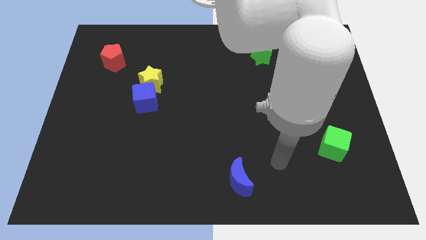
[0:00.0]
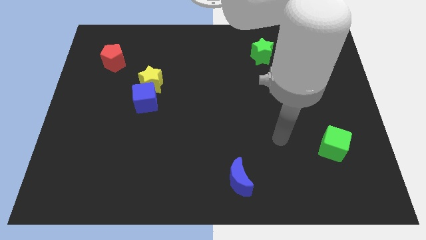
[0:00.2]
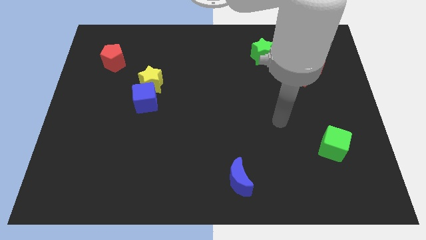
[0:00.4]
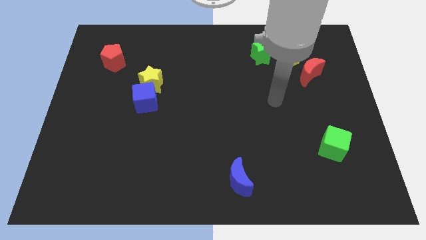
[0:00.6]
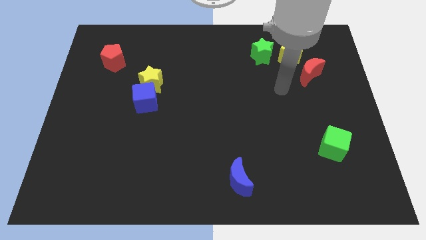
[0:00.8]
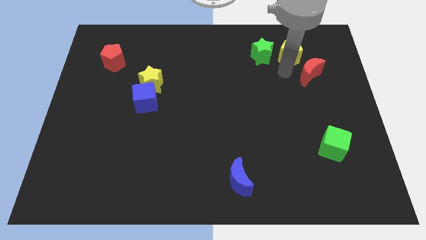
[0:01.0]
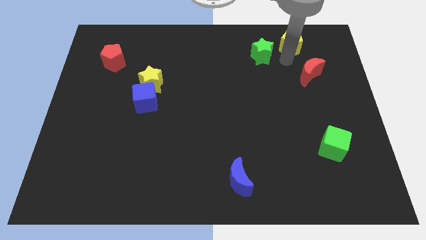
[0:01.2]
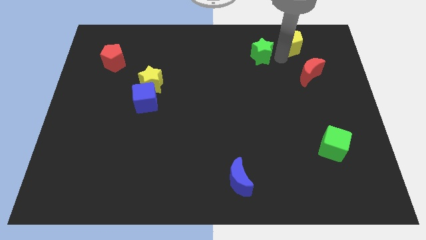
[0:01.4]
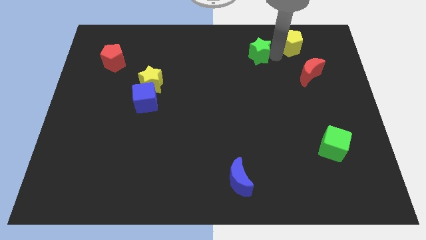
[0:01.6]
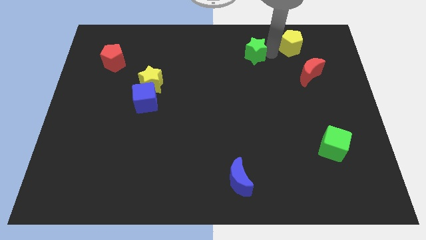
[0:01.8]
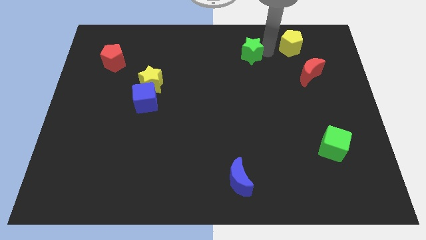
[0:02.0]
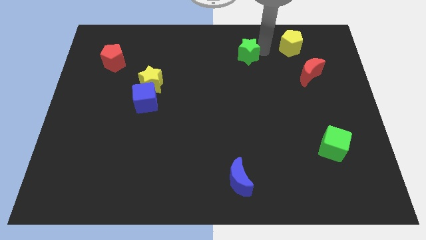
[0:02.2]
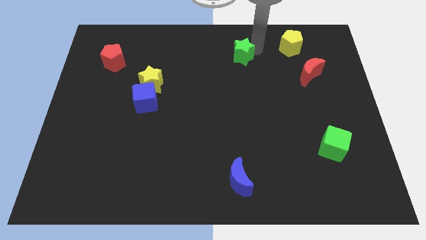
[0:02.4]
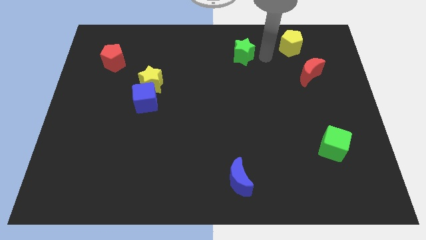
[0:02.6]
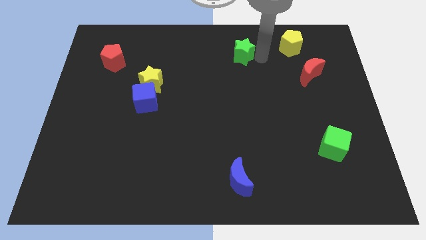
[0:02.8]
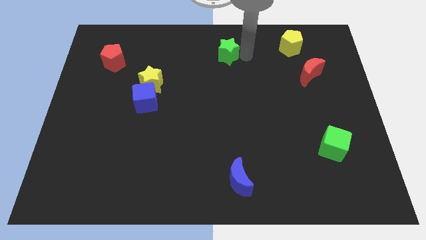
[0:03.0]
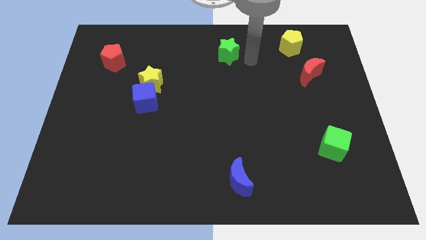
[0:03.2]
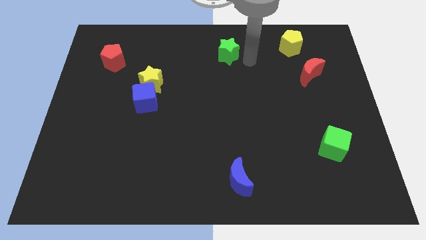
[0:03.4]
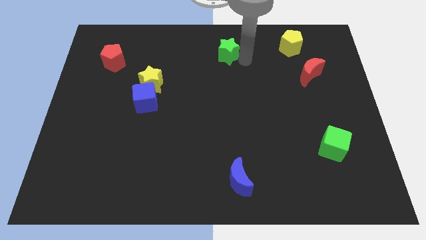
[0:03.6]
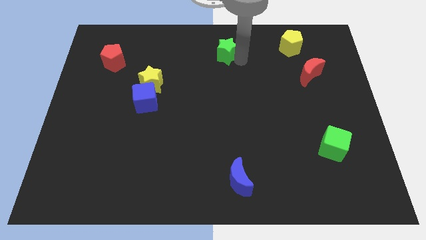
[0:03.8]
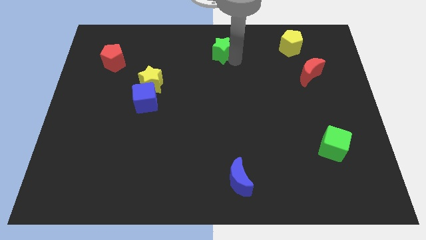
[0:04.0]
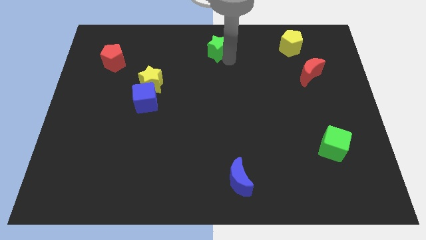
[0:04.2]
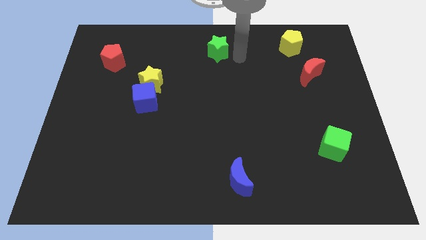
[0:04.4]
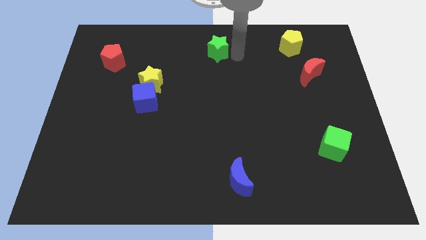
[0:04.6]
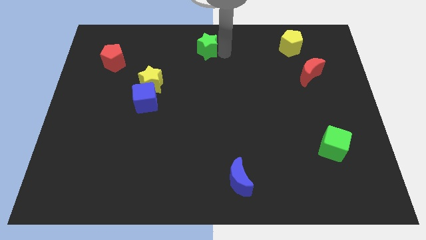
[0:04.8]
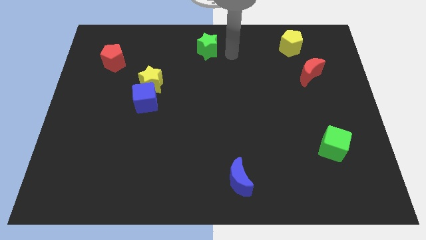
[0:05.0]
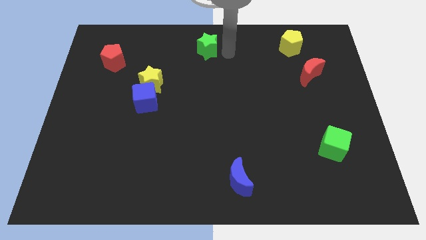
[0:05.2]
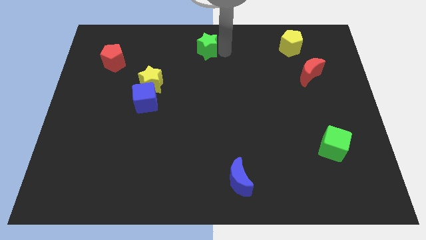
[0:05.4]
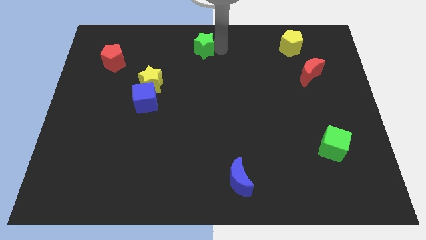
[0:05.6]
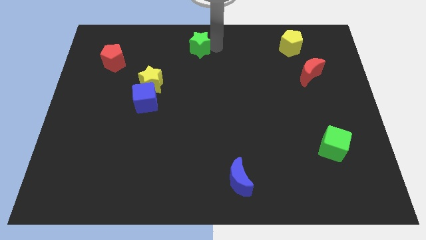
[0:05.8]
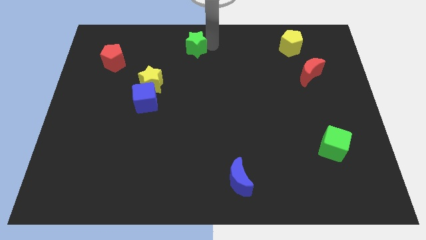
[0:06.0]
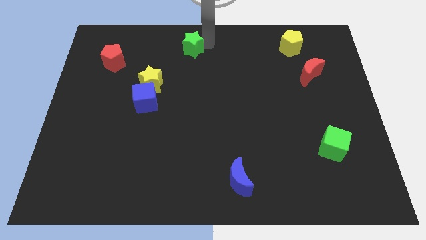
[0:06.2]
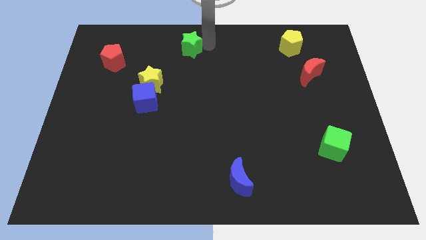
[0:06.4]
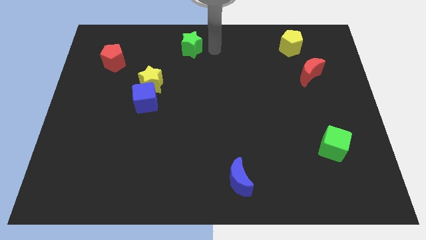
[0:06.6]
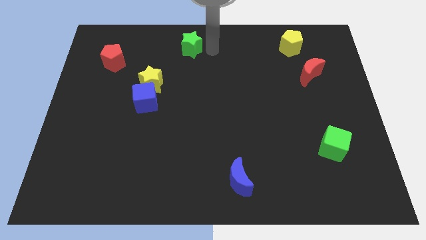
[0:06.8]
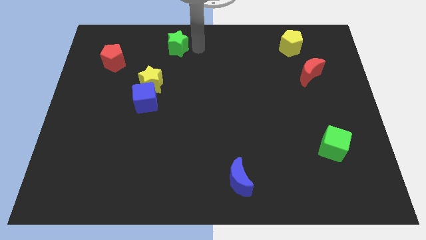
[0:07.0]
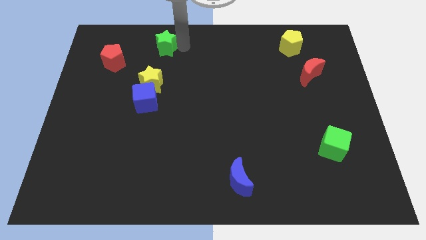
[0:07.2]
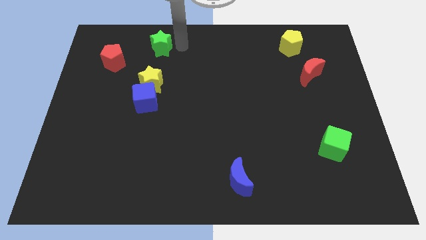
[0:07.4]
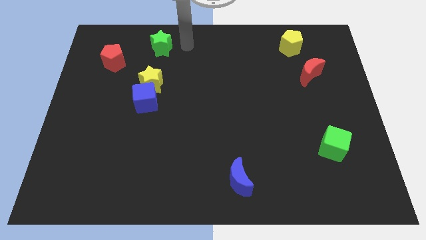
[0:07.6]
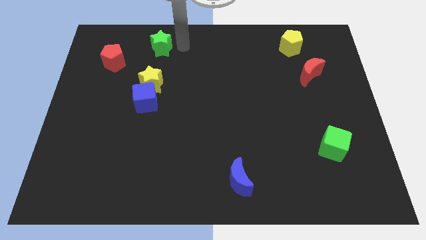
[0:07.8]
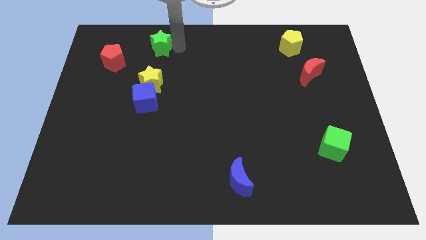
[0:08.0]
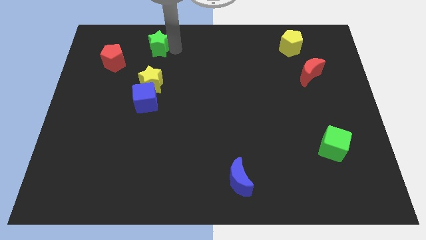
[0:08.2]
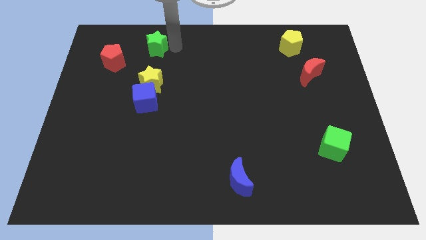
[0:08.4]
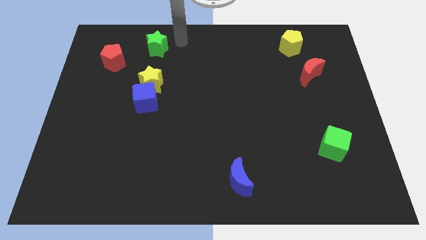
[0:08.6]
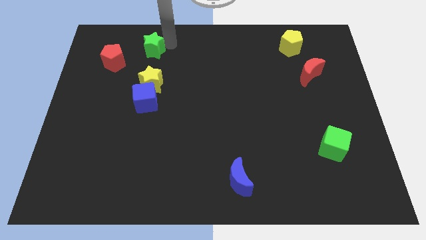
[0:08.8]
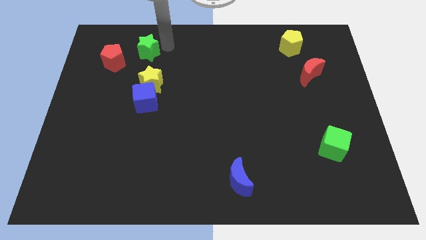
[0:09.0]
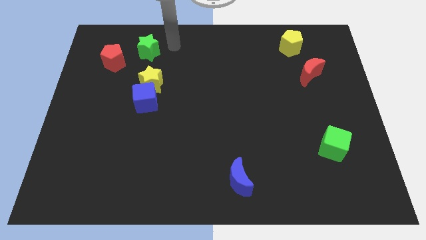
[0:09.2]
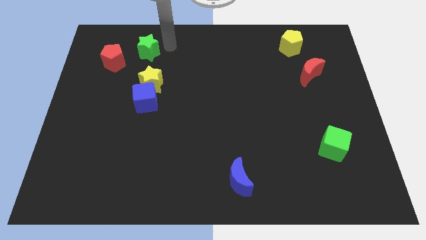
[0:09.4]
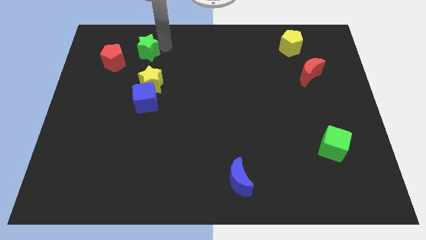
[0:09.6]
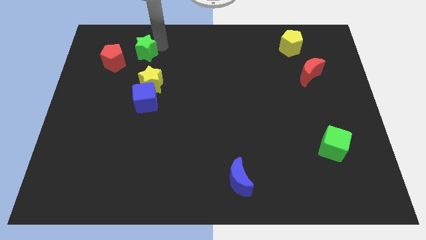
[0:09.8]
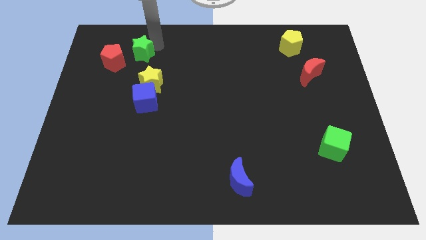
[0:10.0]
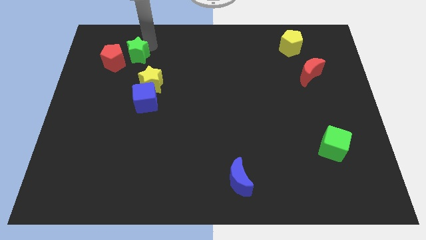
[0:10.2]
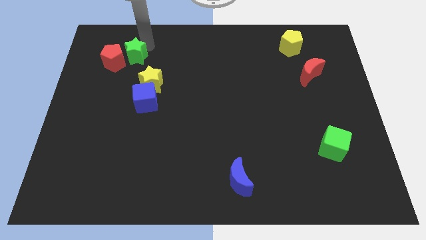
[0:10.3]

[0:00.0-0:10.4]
push the green star next to the red pentagon

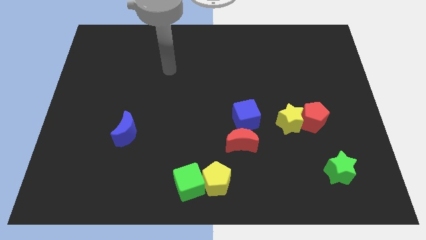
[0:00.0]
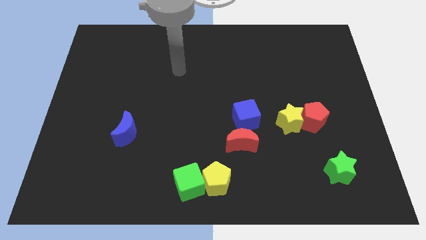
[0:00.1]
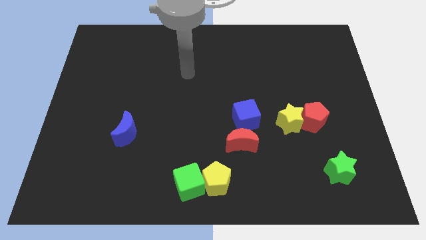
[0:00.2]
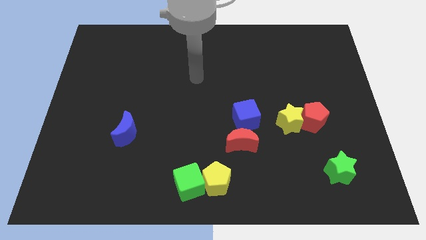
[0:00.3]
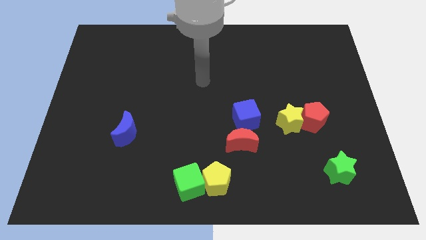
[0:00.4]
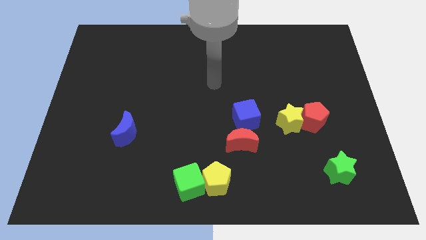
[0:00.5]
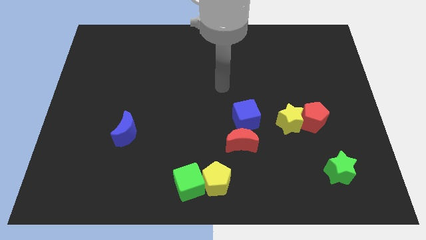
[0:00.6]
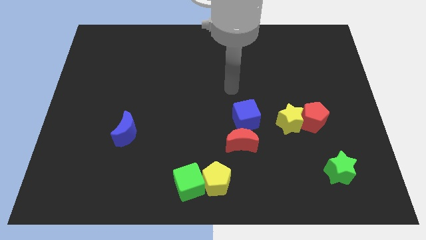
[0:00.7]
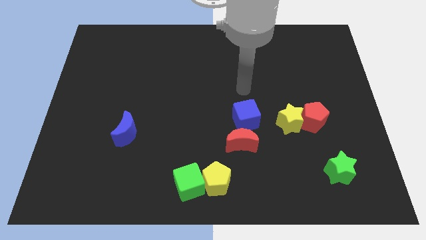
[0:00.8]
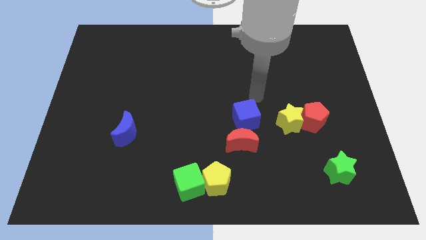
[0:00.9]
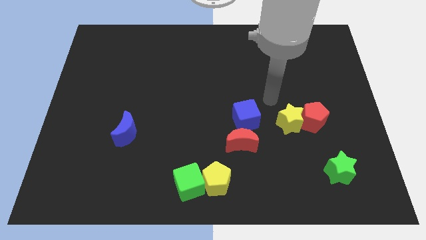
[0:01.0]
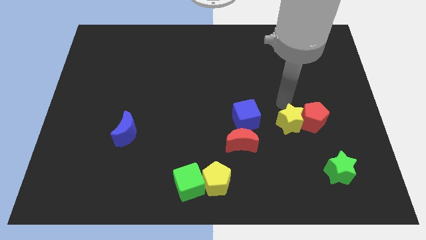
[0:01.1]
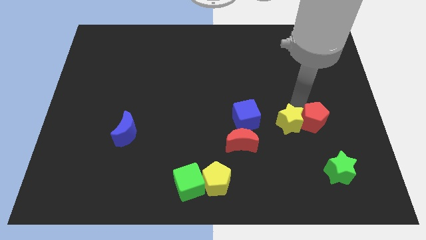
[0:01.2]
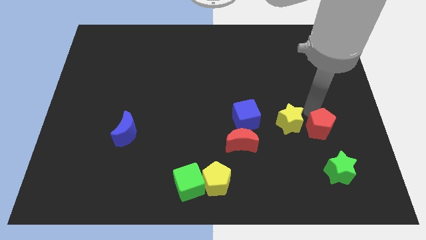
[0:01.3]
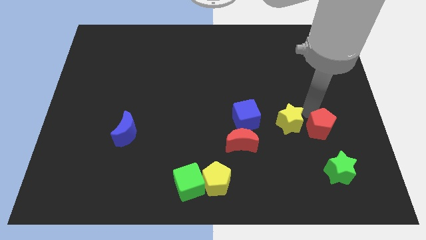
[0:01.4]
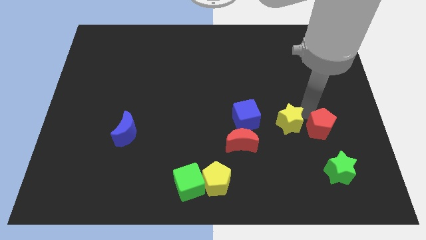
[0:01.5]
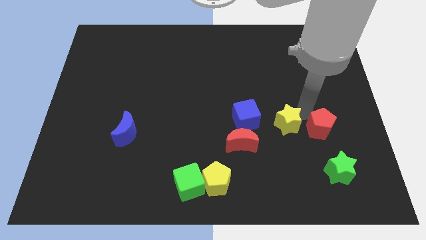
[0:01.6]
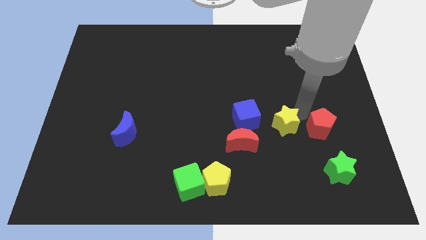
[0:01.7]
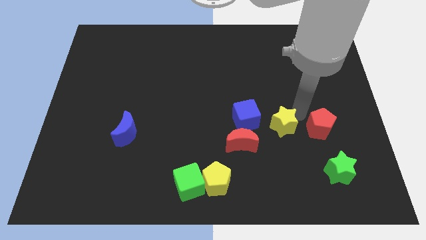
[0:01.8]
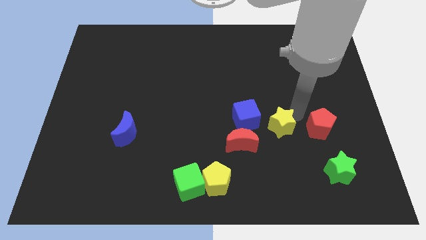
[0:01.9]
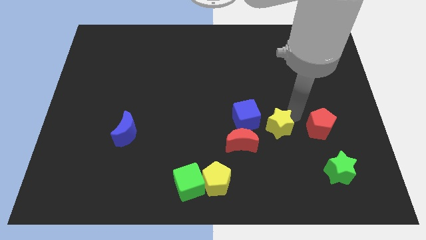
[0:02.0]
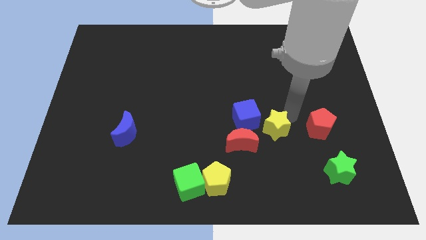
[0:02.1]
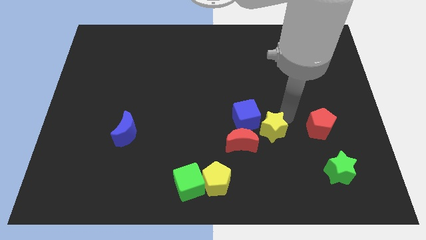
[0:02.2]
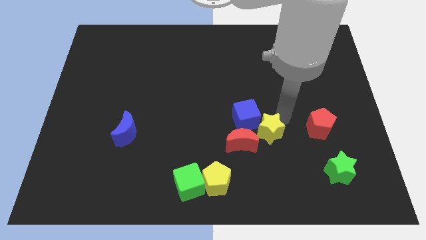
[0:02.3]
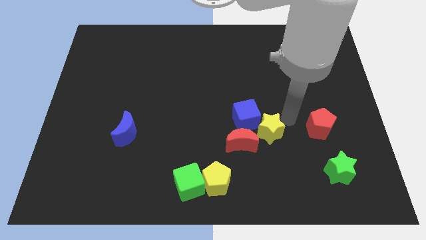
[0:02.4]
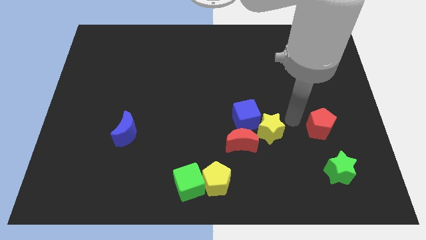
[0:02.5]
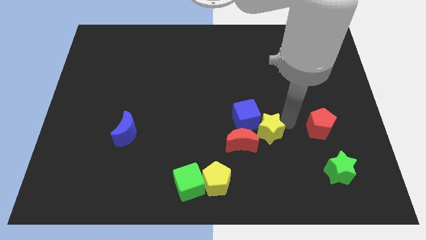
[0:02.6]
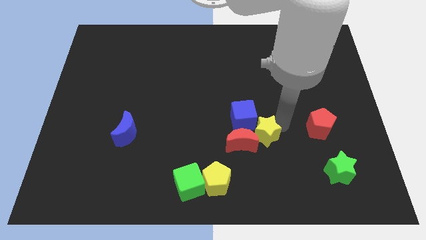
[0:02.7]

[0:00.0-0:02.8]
put the yellow star close to the red moon
